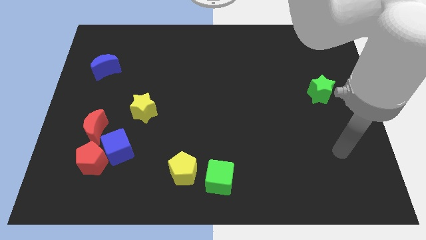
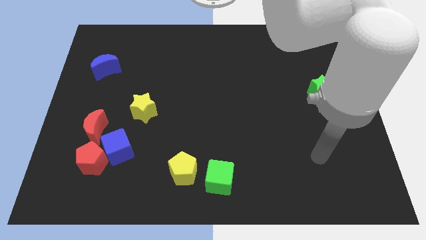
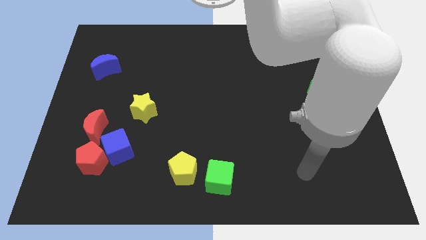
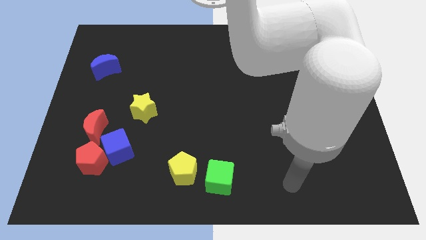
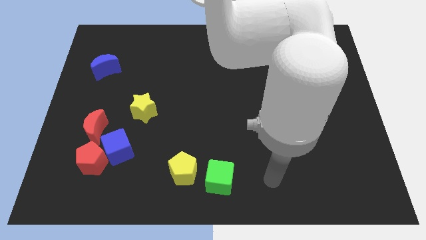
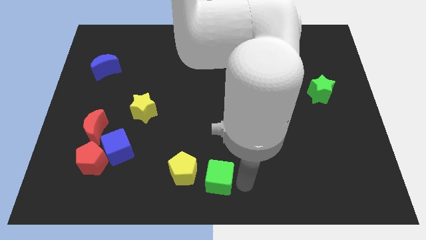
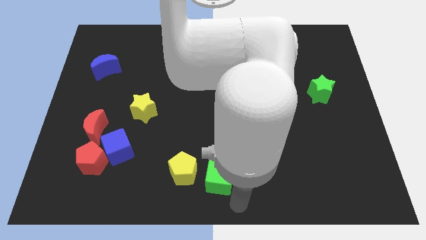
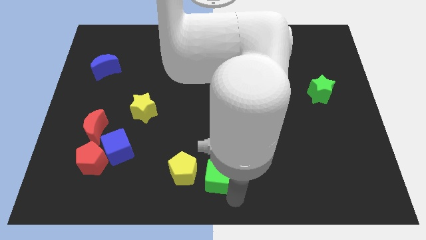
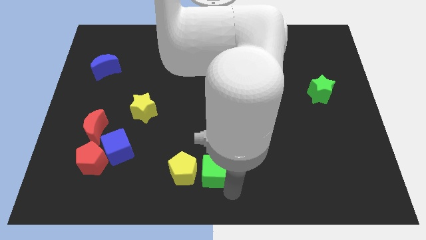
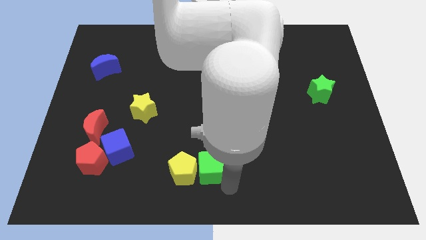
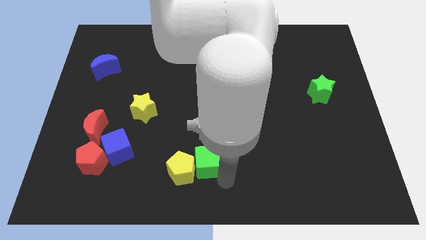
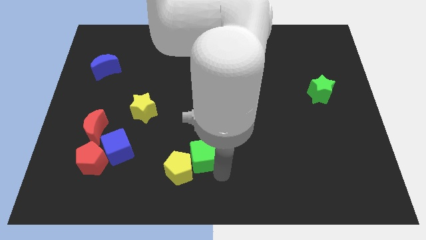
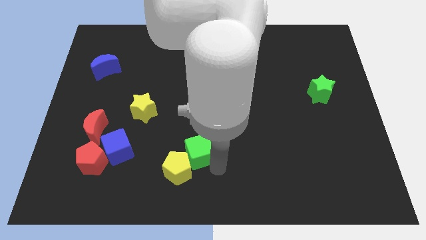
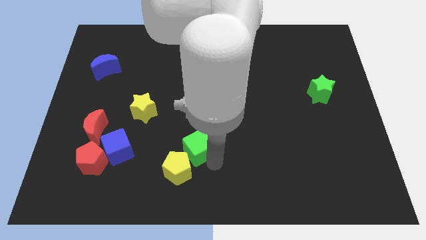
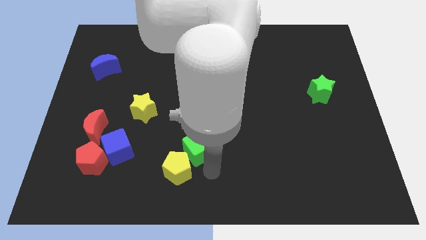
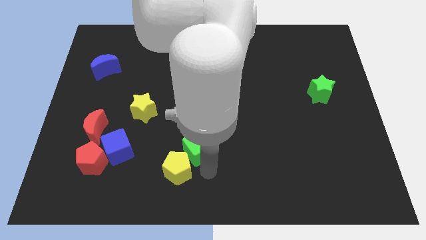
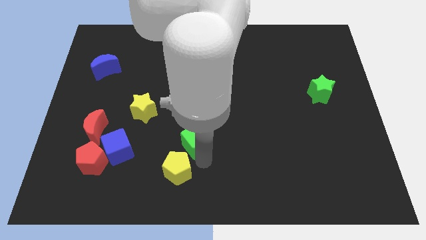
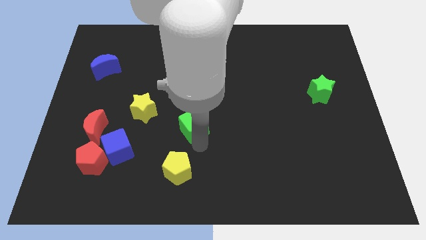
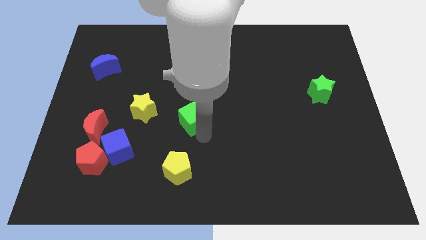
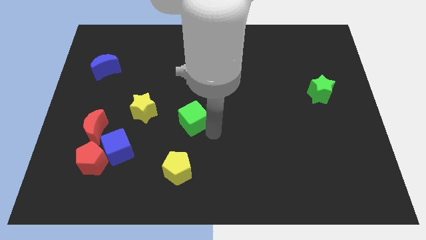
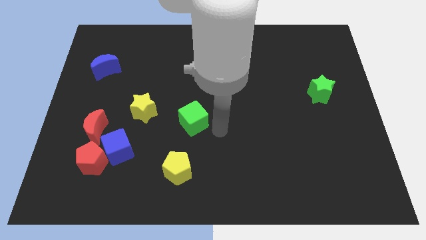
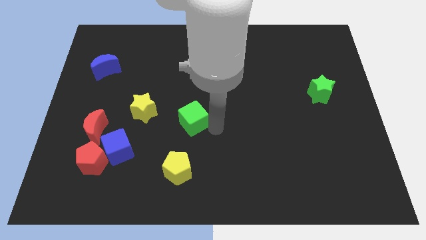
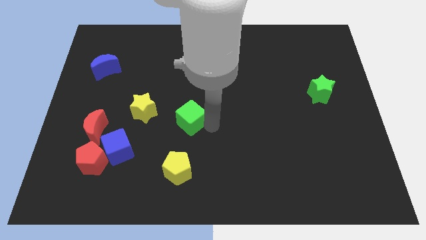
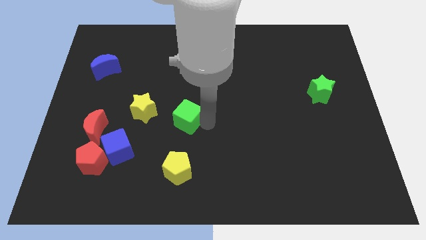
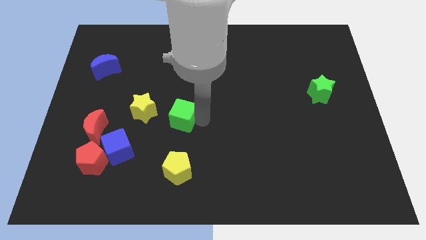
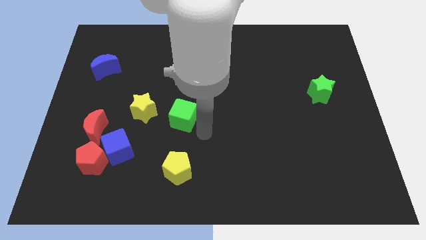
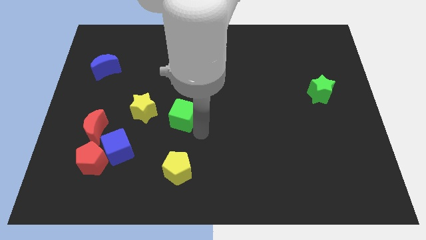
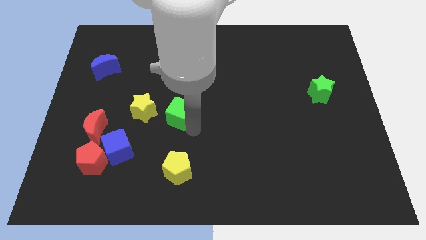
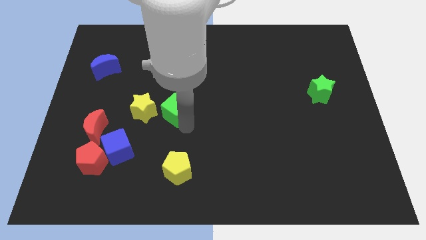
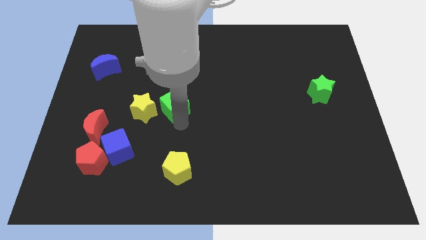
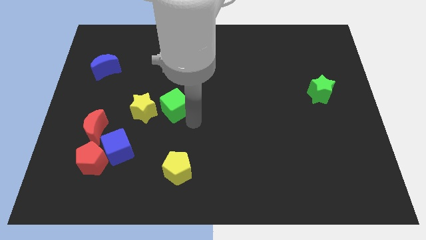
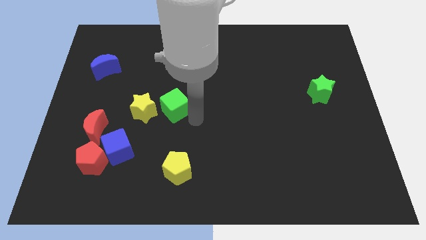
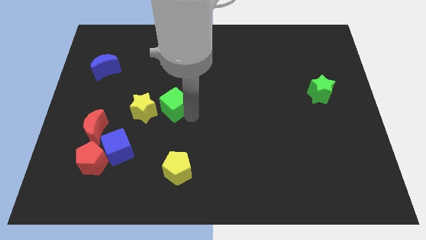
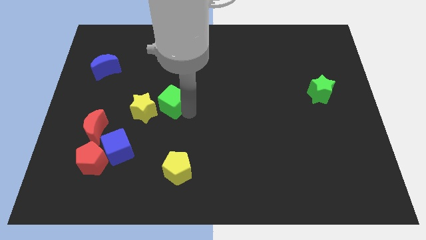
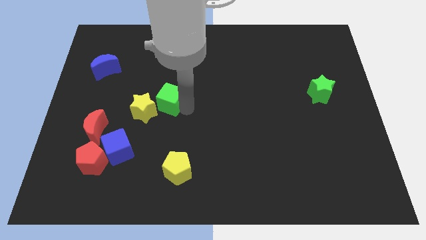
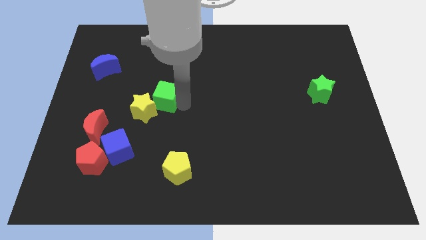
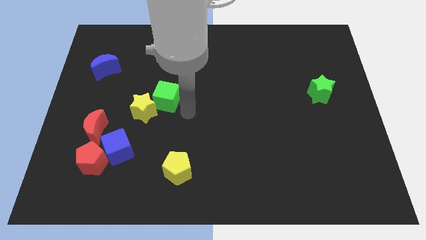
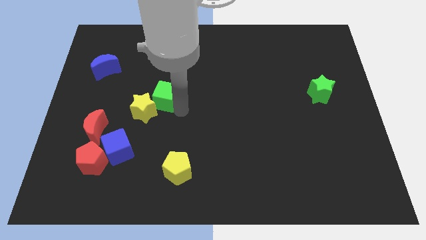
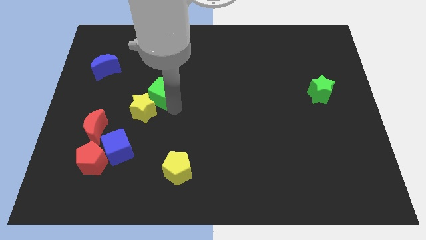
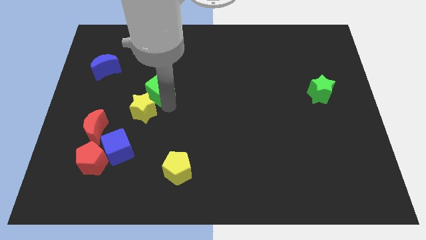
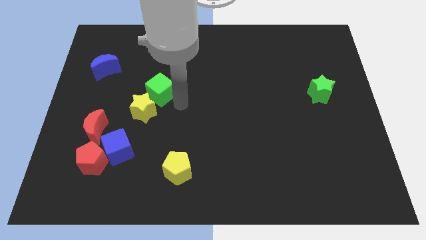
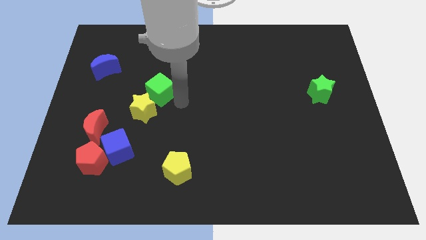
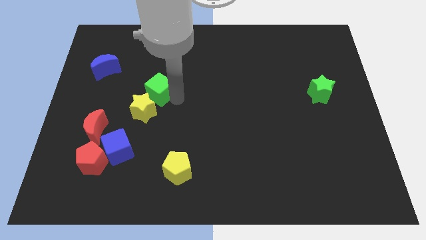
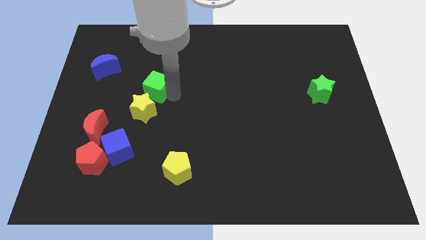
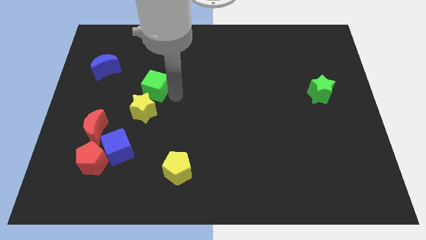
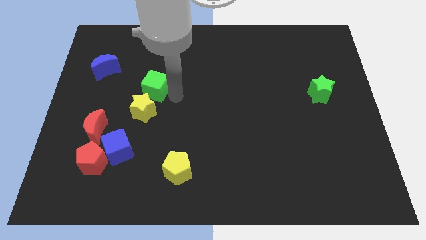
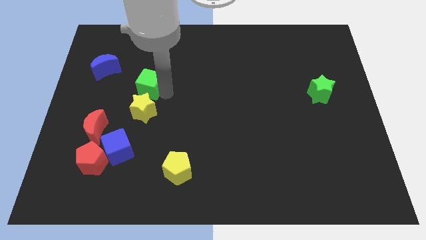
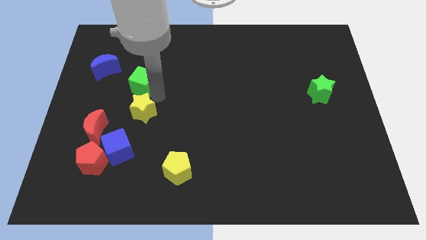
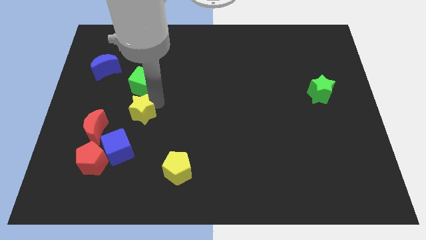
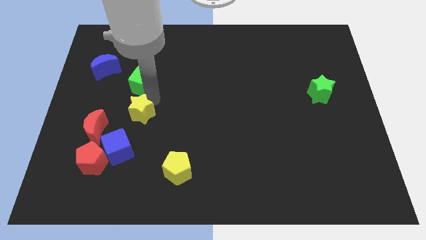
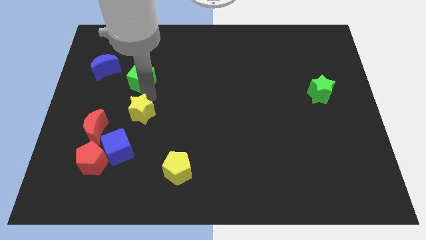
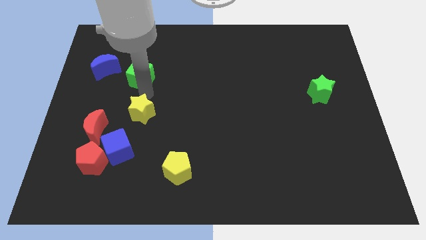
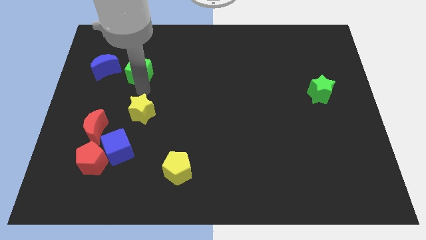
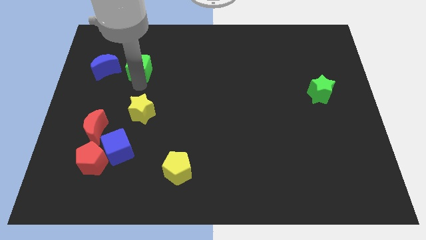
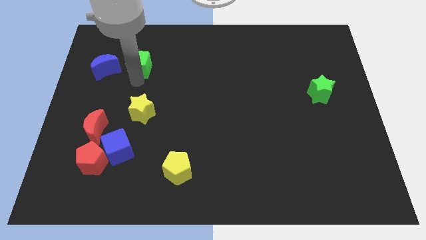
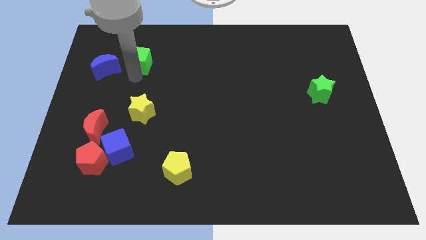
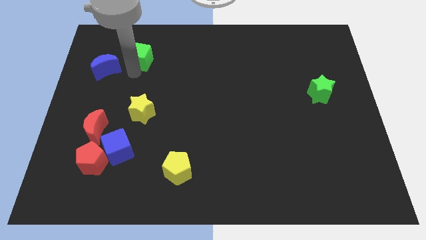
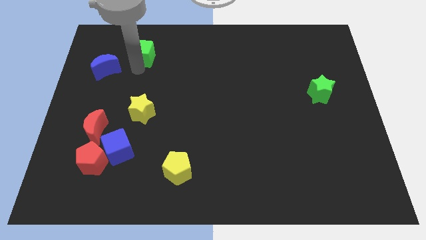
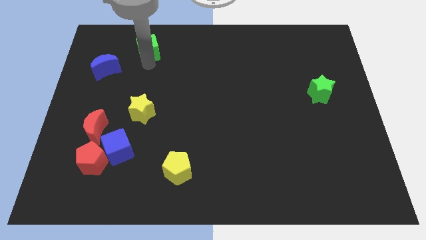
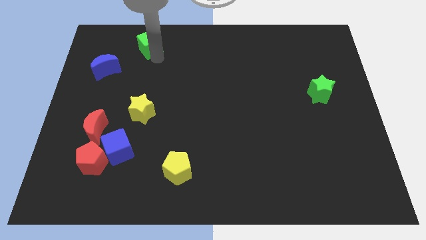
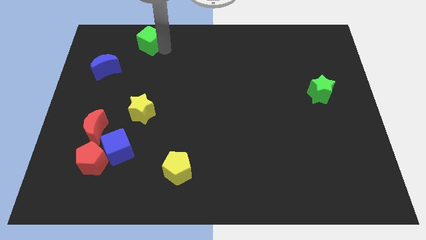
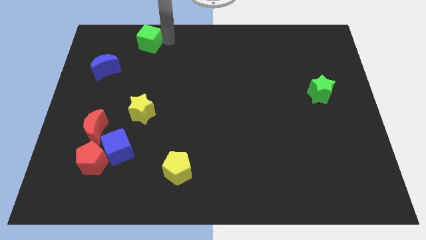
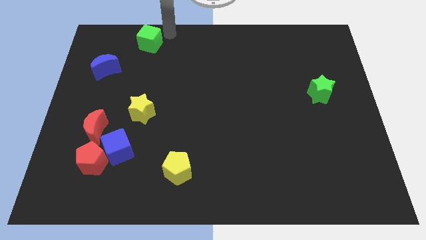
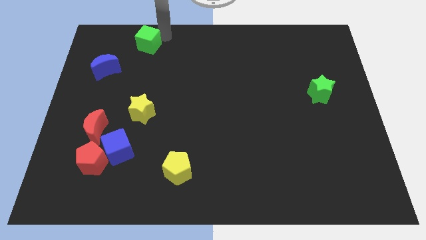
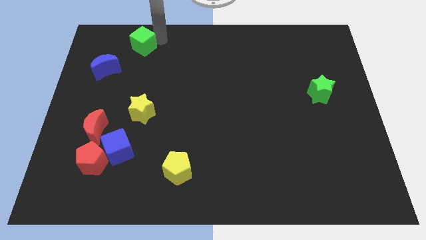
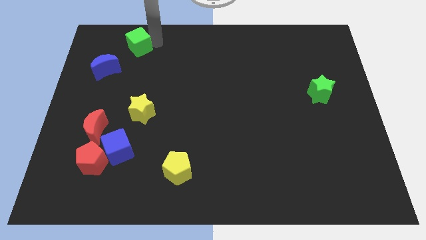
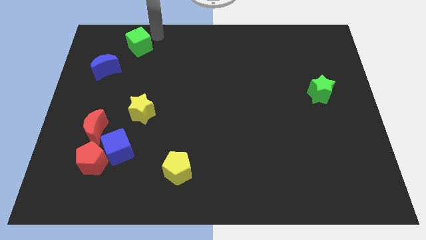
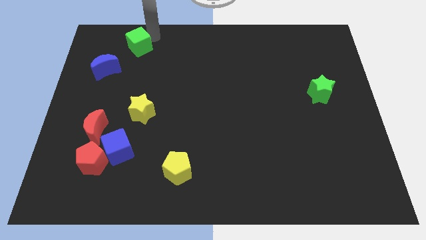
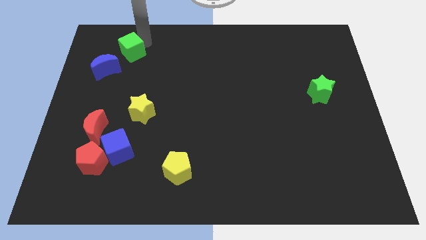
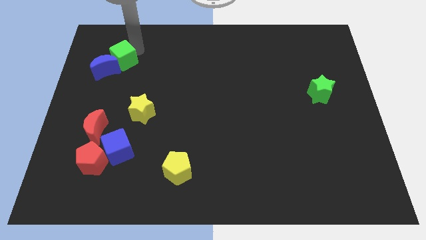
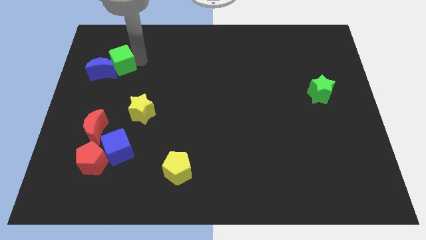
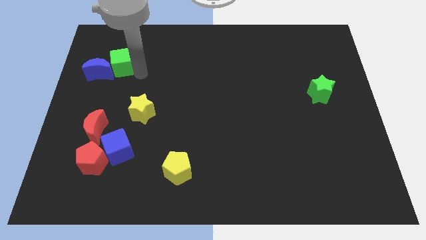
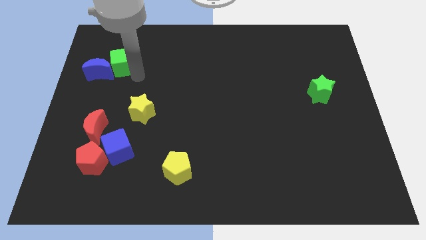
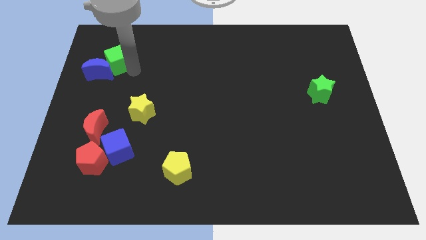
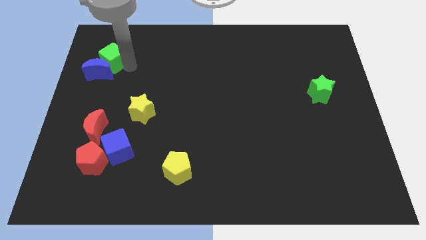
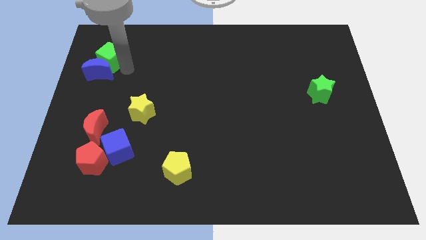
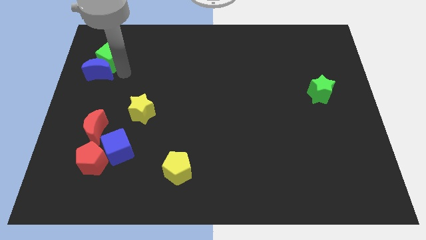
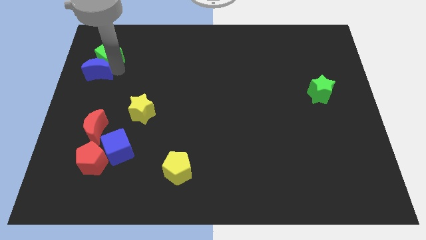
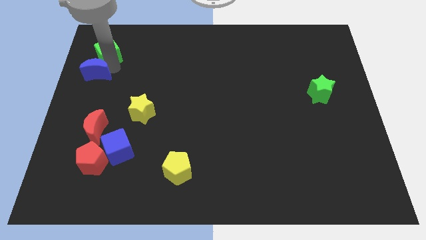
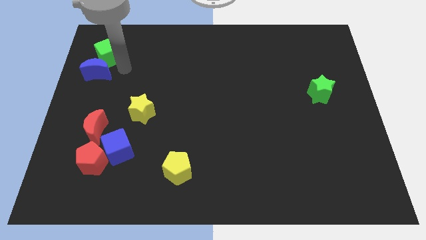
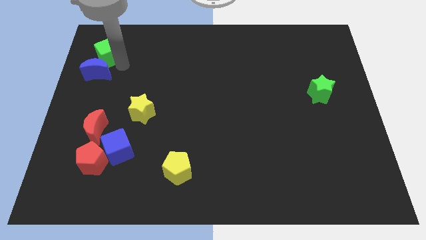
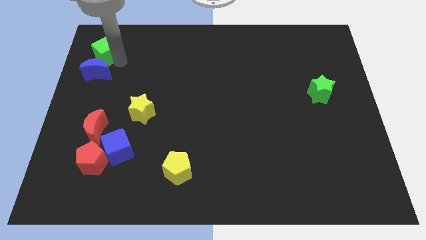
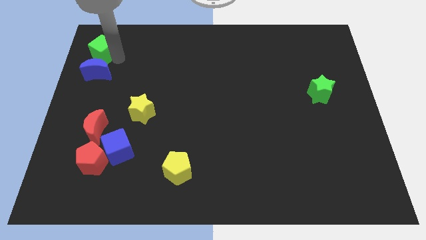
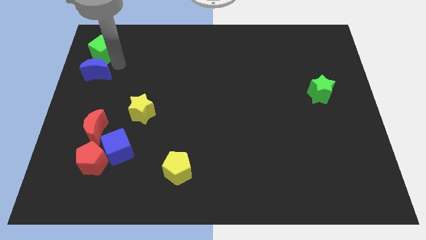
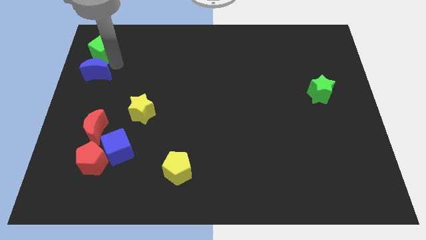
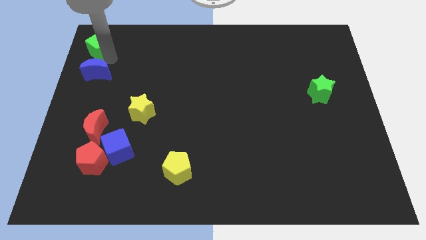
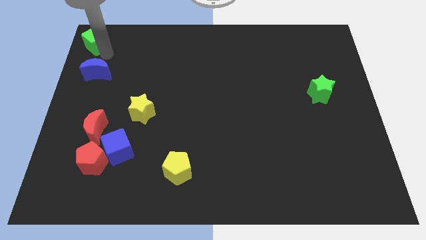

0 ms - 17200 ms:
push the green cube to the upper left corner
